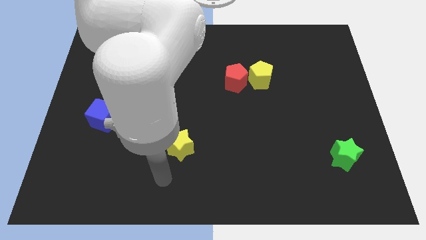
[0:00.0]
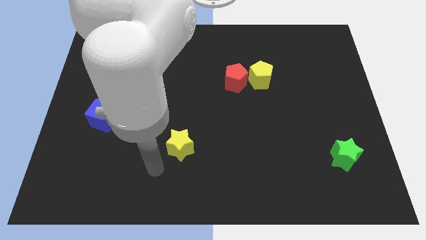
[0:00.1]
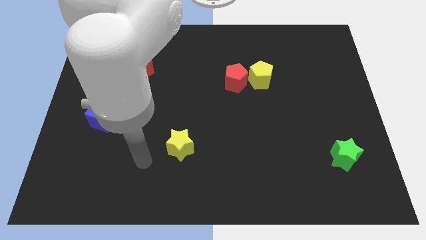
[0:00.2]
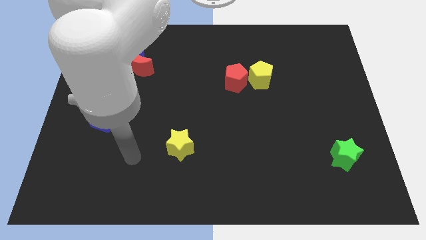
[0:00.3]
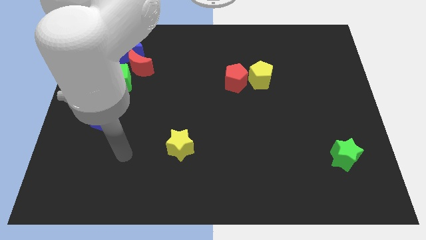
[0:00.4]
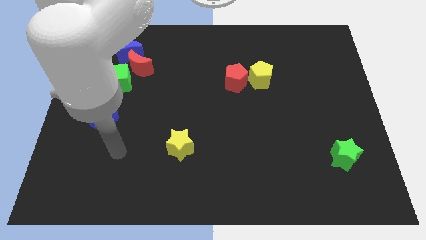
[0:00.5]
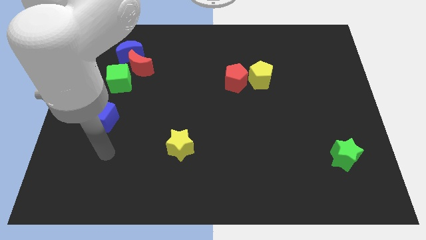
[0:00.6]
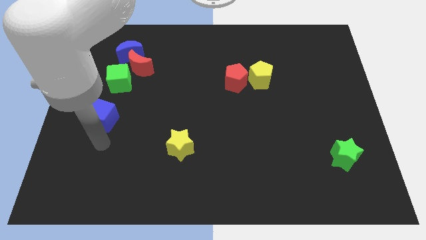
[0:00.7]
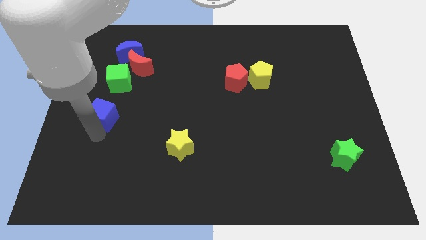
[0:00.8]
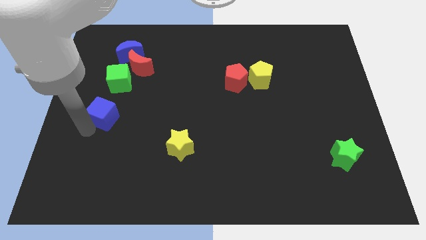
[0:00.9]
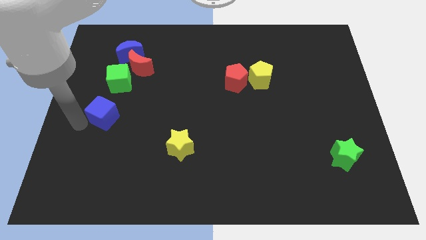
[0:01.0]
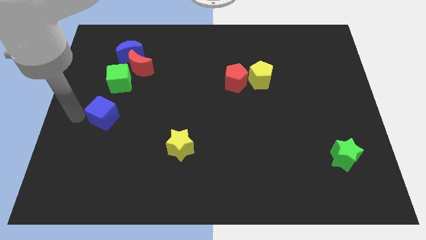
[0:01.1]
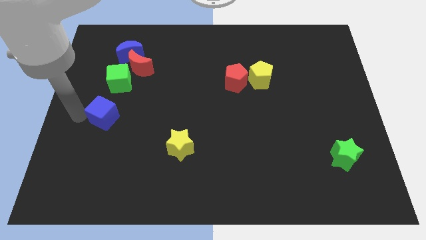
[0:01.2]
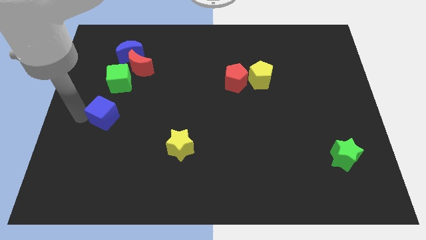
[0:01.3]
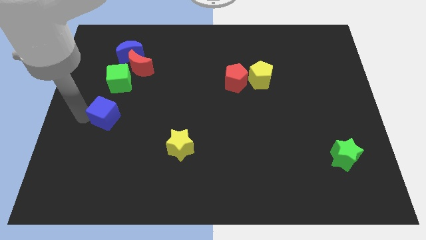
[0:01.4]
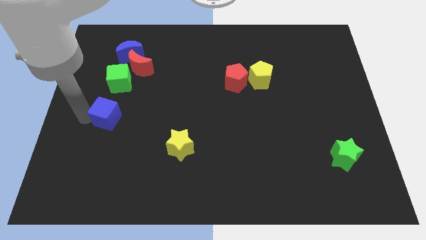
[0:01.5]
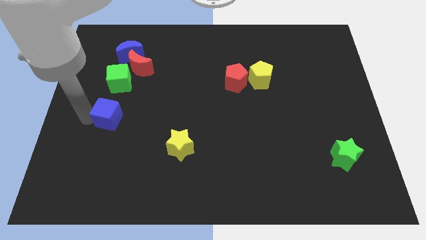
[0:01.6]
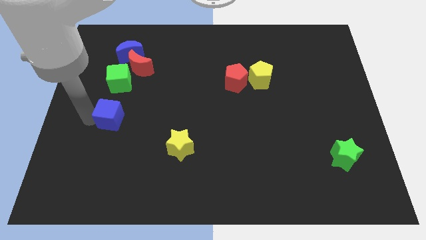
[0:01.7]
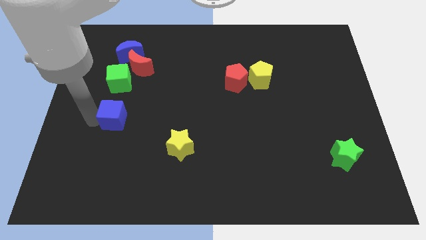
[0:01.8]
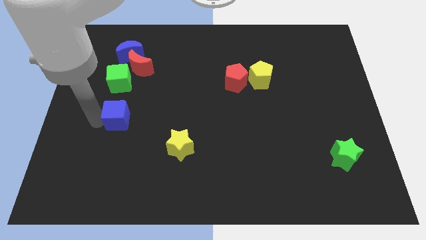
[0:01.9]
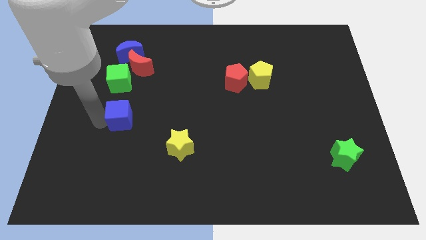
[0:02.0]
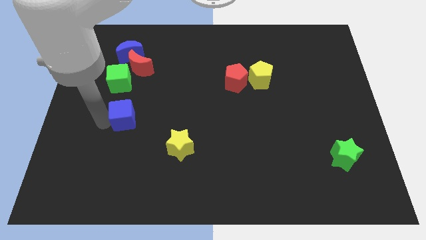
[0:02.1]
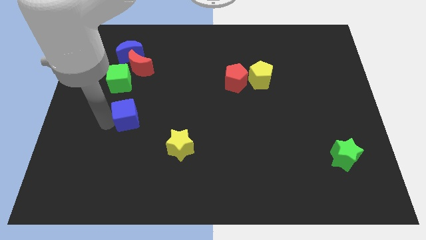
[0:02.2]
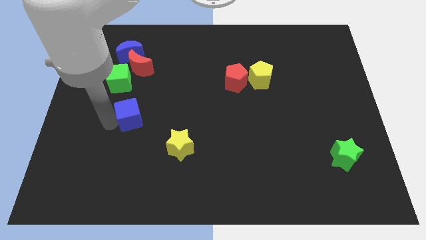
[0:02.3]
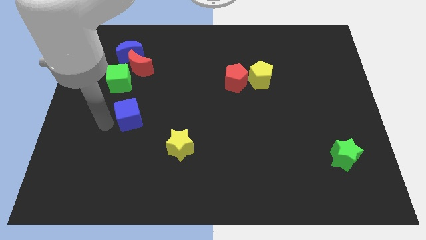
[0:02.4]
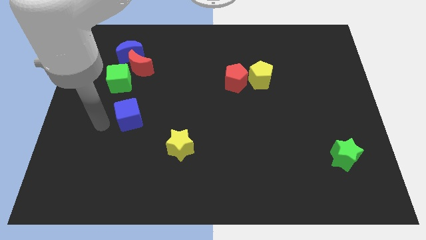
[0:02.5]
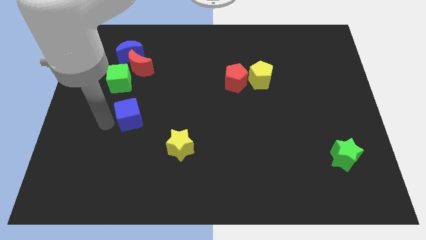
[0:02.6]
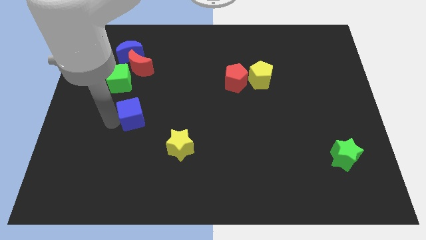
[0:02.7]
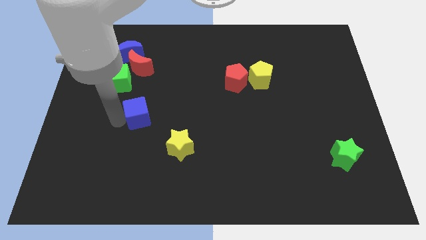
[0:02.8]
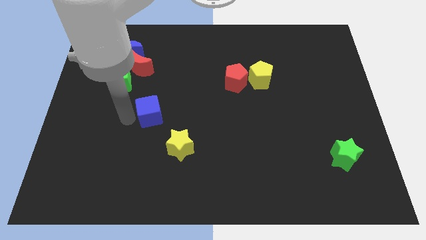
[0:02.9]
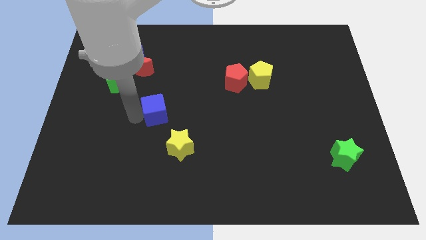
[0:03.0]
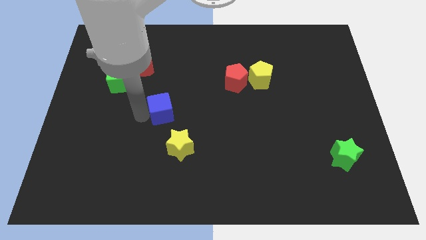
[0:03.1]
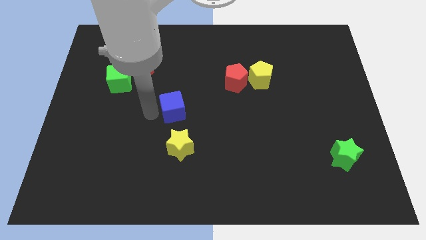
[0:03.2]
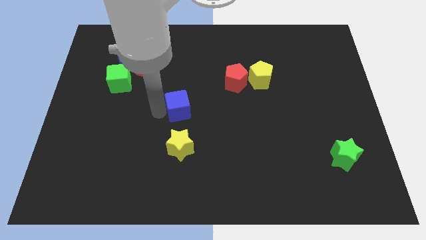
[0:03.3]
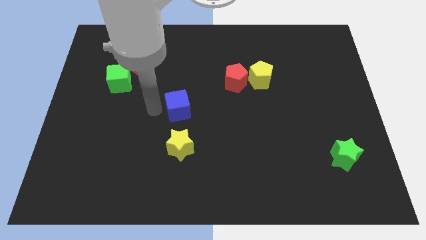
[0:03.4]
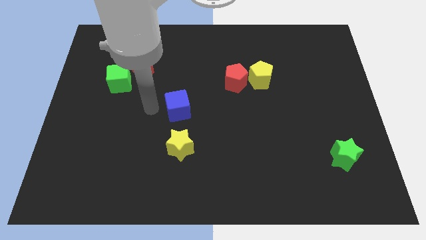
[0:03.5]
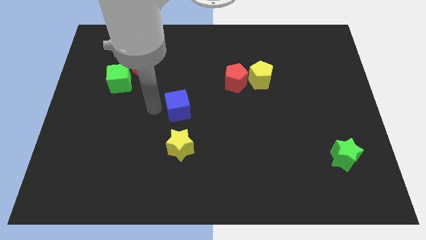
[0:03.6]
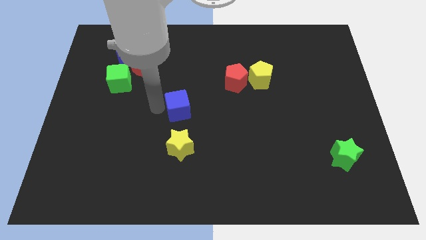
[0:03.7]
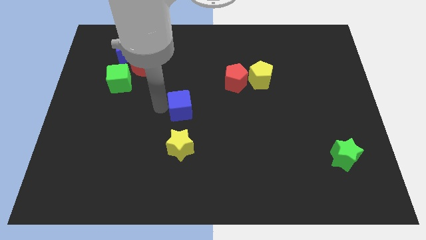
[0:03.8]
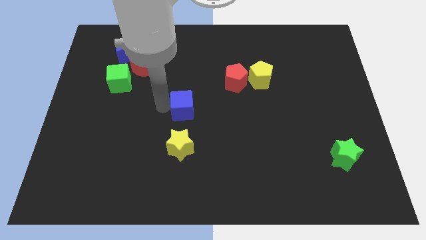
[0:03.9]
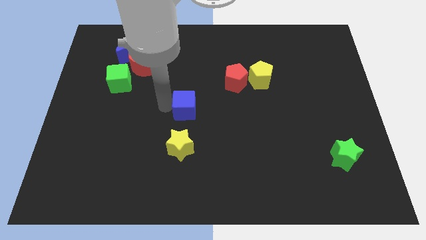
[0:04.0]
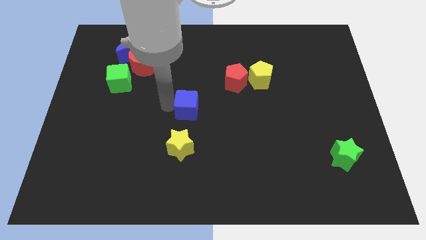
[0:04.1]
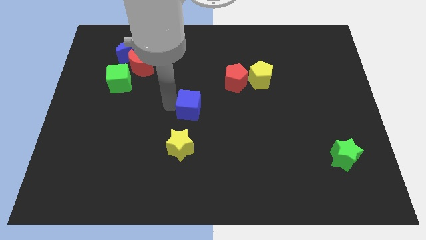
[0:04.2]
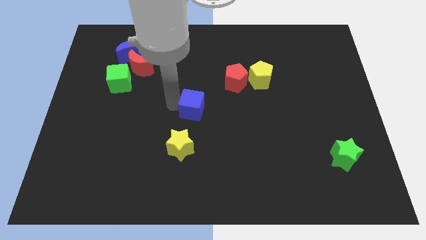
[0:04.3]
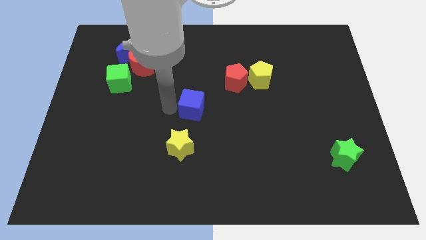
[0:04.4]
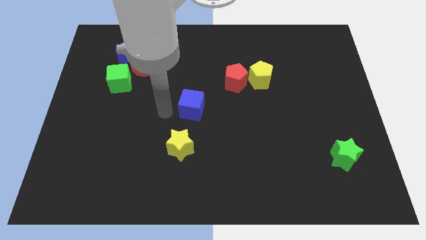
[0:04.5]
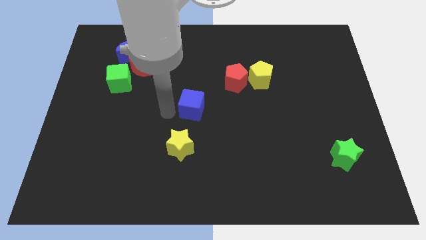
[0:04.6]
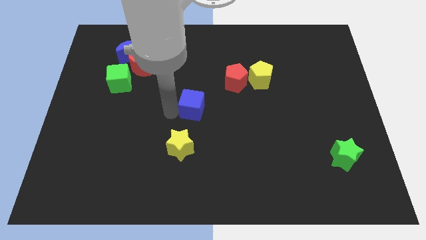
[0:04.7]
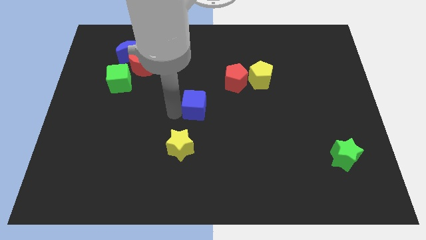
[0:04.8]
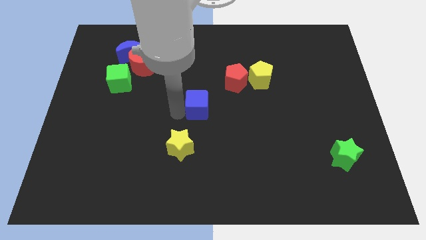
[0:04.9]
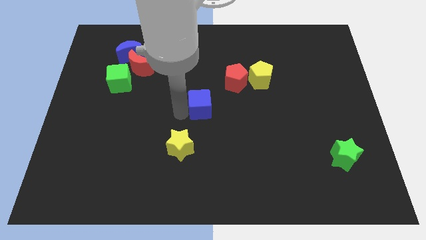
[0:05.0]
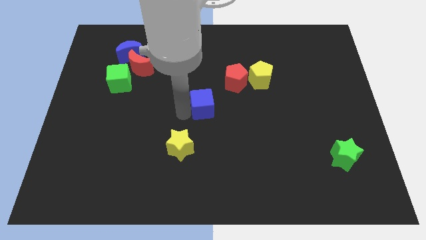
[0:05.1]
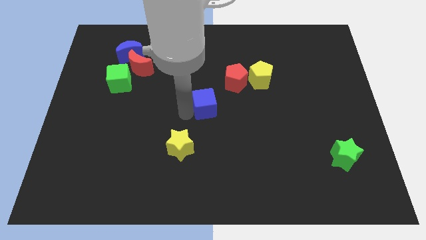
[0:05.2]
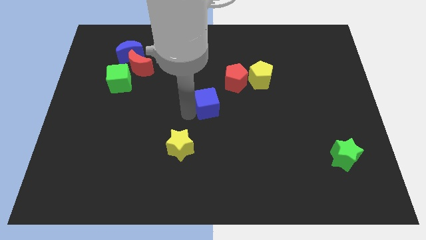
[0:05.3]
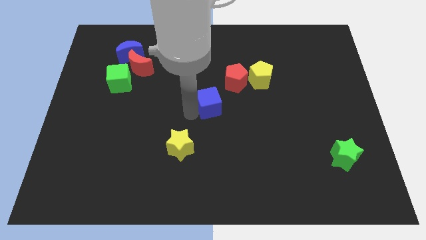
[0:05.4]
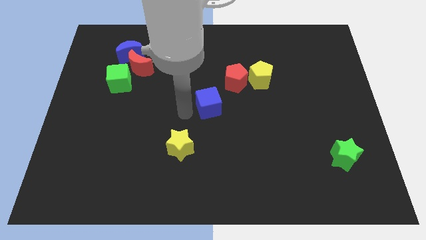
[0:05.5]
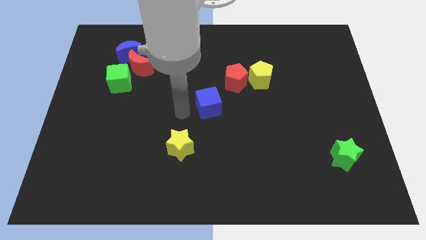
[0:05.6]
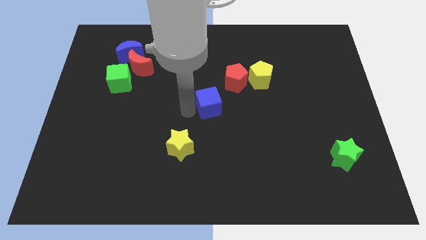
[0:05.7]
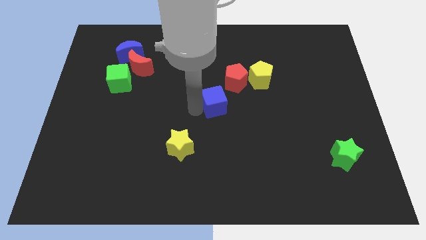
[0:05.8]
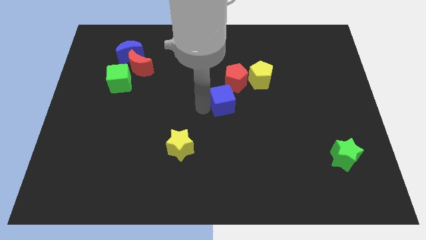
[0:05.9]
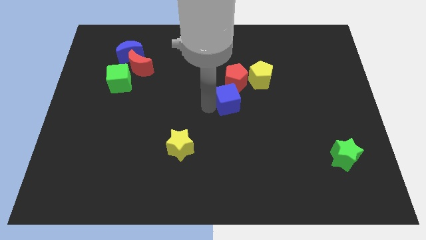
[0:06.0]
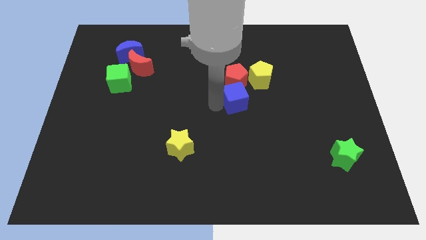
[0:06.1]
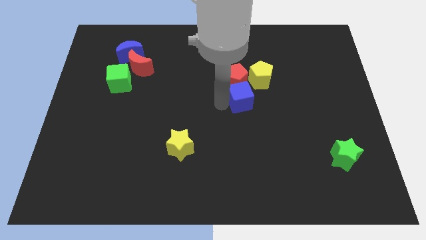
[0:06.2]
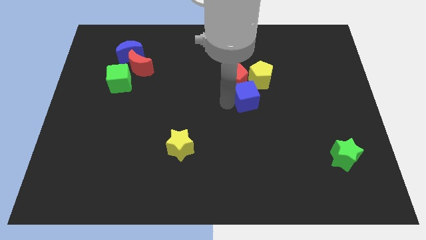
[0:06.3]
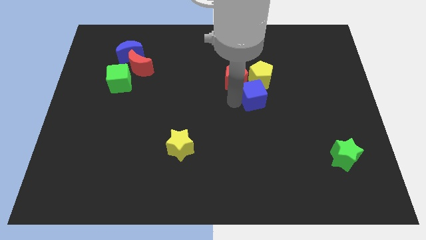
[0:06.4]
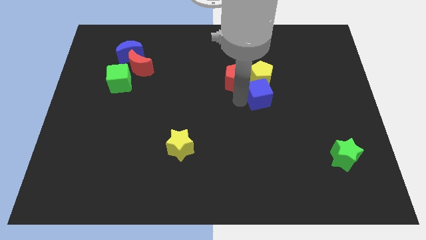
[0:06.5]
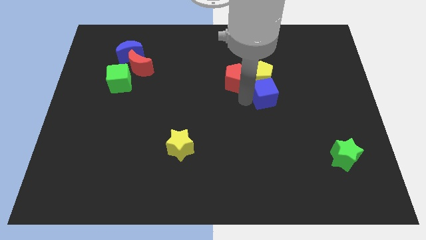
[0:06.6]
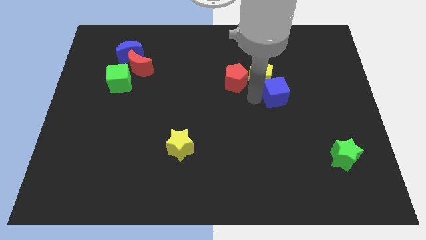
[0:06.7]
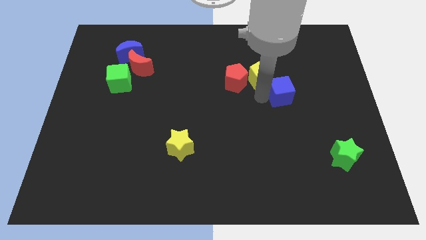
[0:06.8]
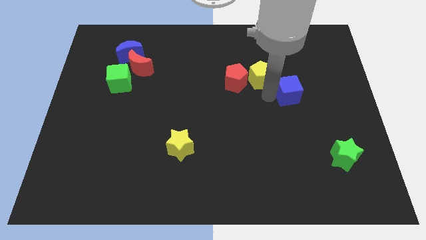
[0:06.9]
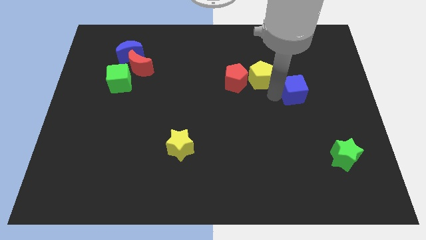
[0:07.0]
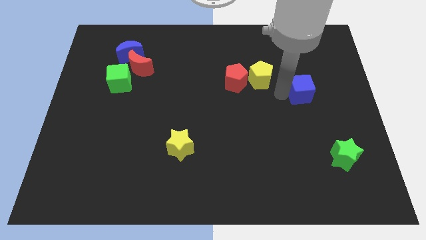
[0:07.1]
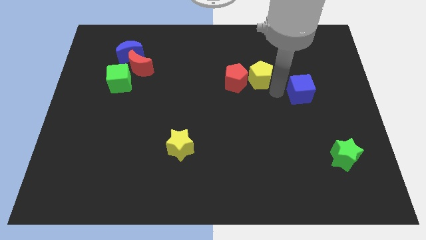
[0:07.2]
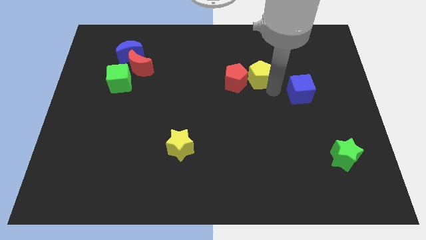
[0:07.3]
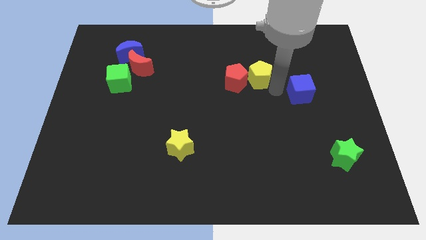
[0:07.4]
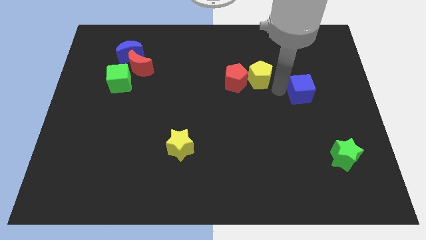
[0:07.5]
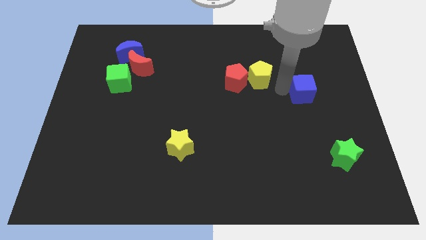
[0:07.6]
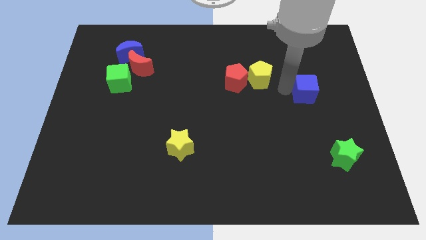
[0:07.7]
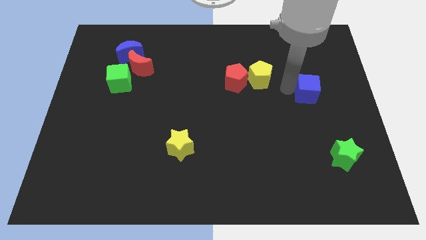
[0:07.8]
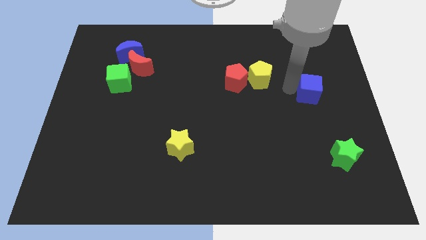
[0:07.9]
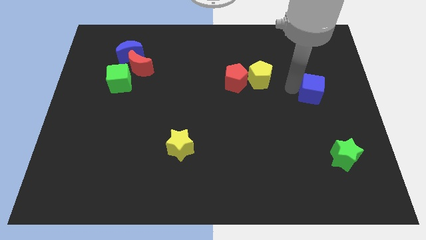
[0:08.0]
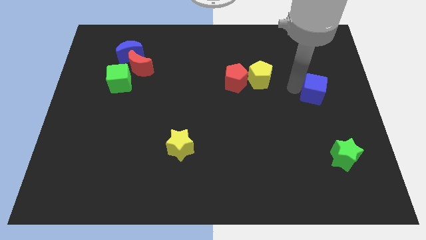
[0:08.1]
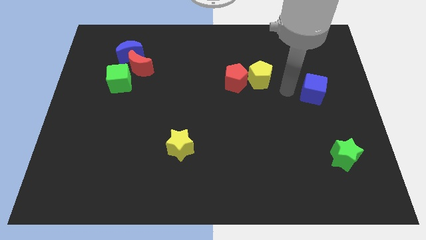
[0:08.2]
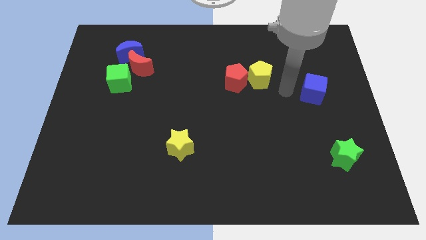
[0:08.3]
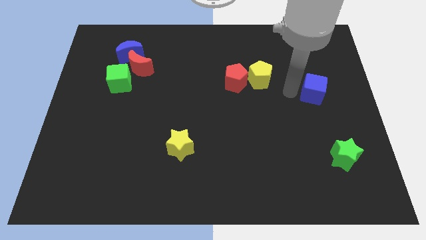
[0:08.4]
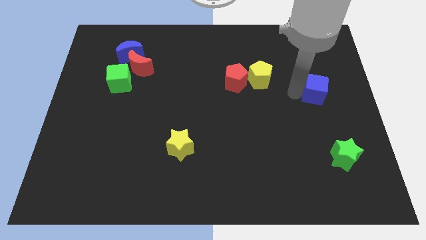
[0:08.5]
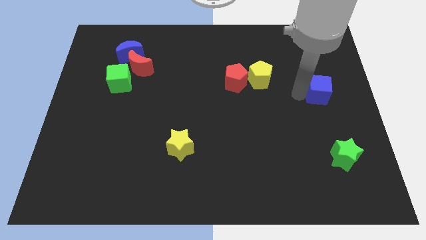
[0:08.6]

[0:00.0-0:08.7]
push the blue cube to the right side
